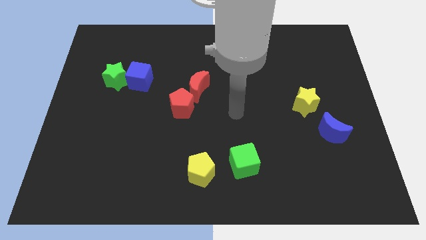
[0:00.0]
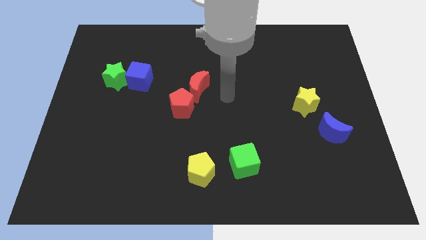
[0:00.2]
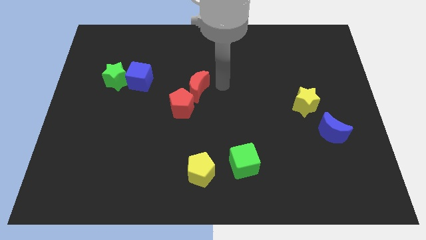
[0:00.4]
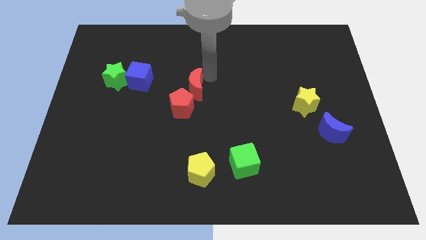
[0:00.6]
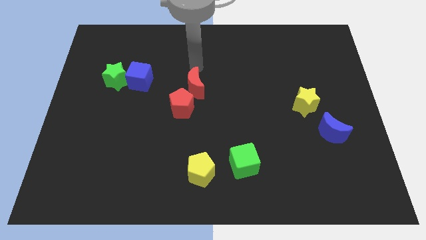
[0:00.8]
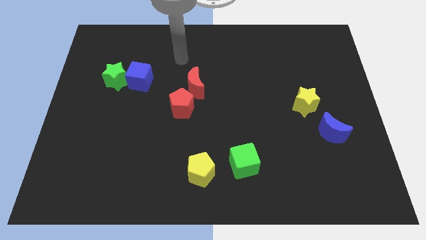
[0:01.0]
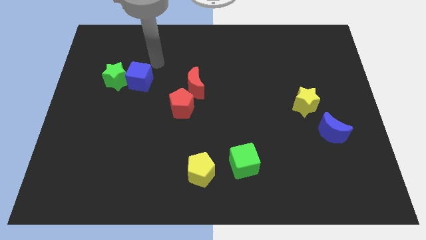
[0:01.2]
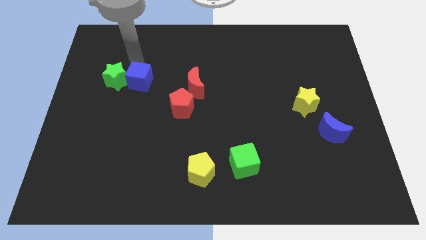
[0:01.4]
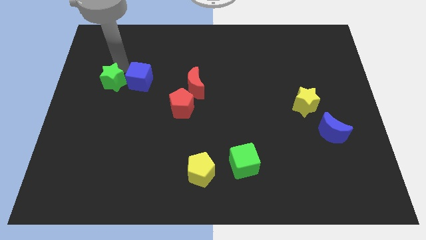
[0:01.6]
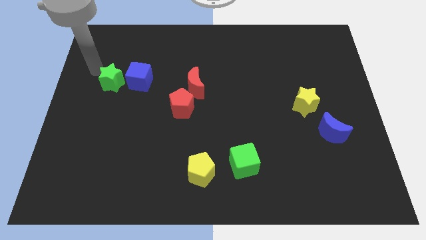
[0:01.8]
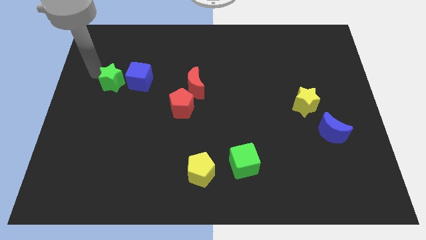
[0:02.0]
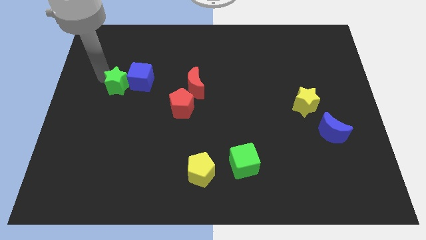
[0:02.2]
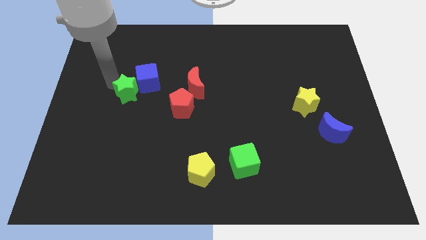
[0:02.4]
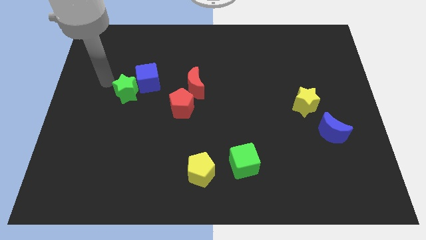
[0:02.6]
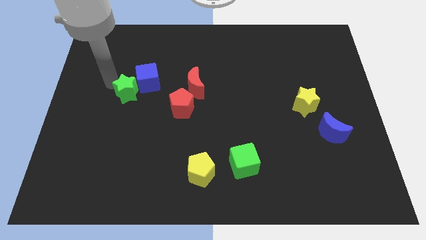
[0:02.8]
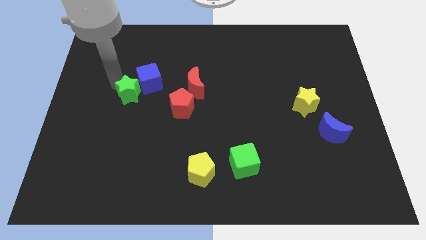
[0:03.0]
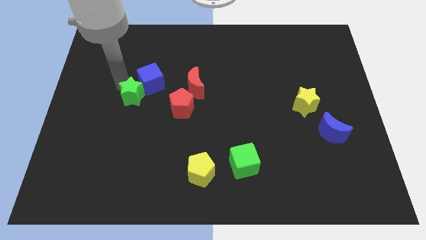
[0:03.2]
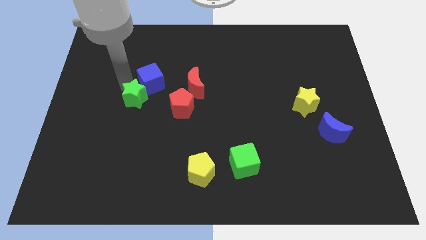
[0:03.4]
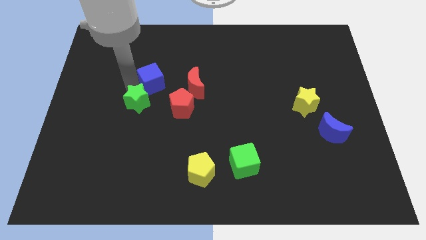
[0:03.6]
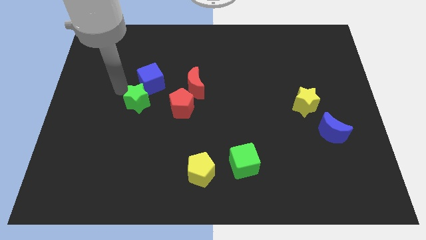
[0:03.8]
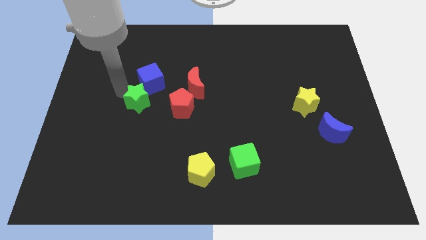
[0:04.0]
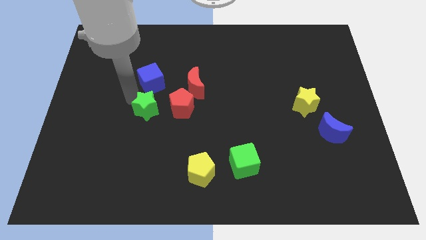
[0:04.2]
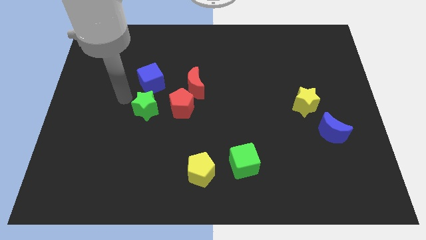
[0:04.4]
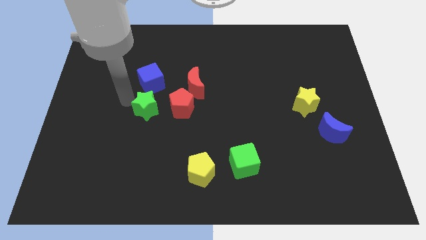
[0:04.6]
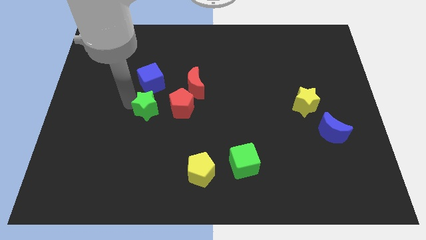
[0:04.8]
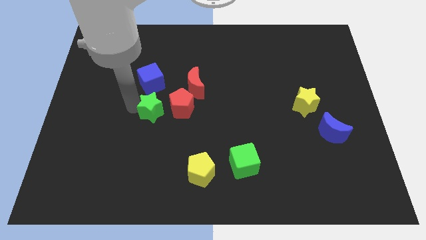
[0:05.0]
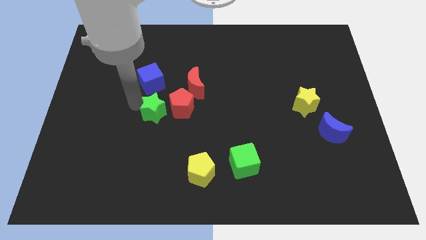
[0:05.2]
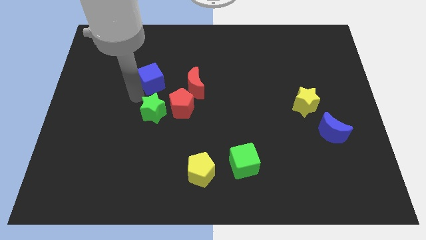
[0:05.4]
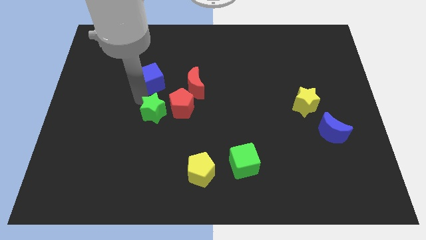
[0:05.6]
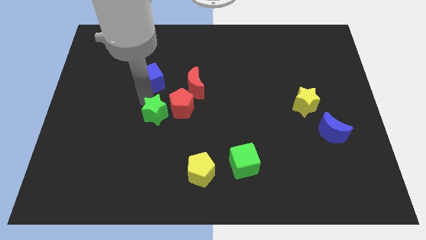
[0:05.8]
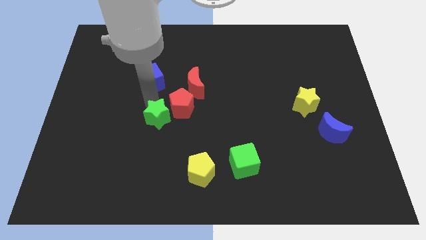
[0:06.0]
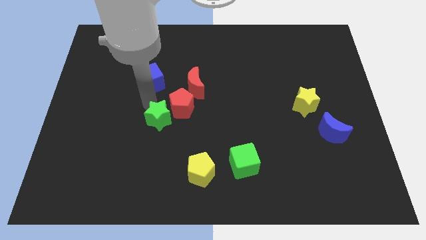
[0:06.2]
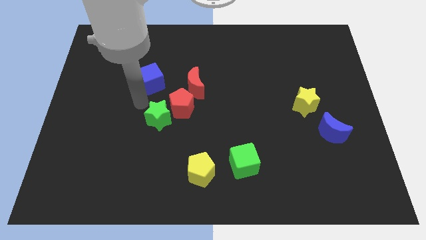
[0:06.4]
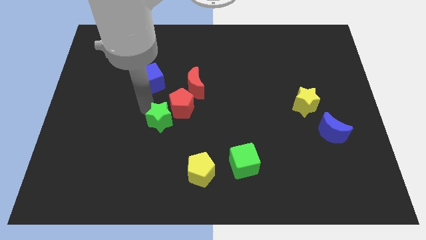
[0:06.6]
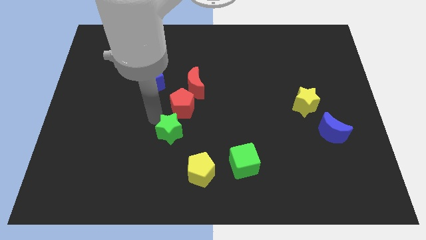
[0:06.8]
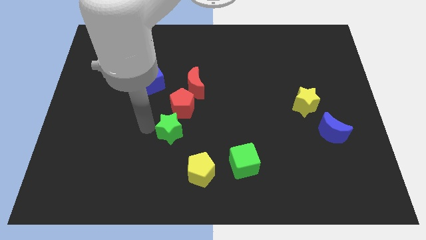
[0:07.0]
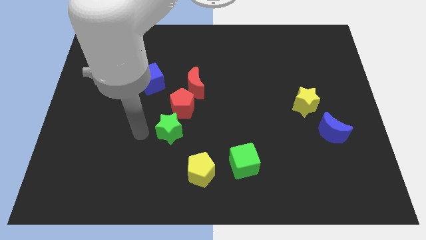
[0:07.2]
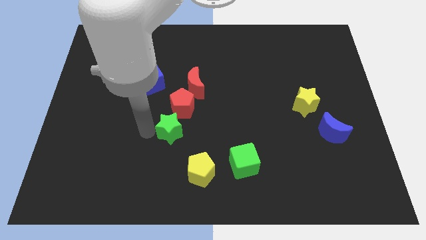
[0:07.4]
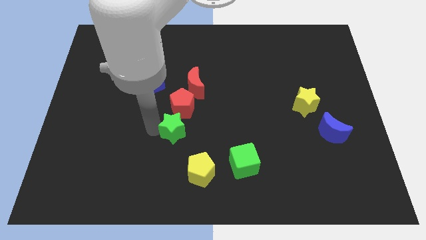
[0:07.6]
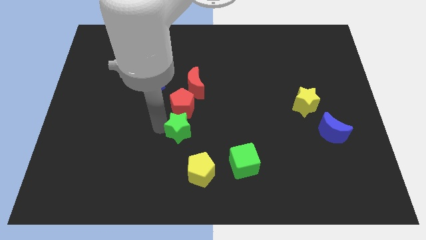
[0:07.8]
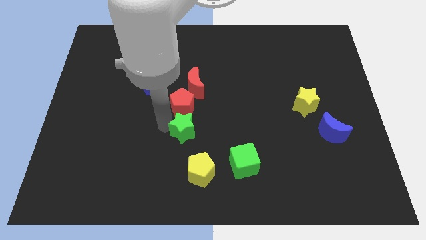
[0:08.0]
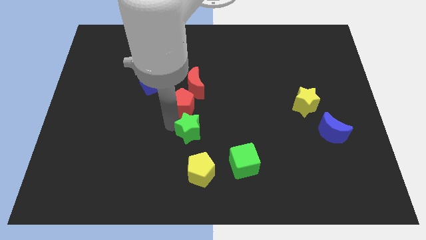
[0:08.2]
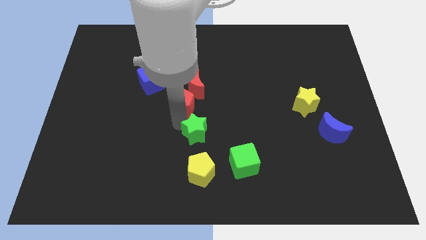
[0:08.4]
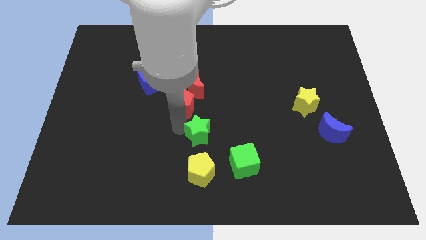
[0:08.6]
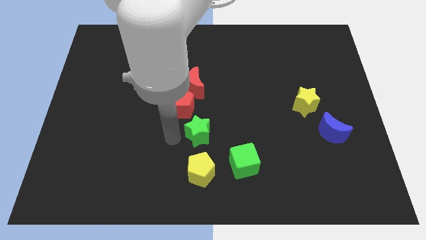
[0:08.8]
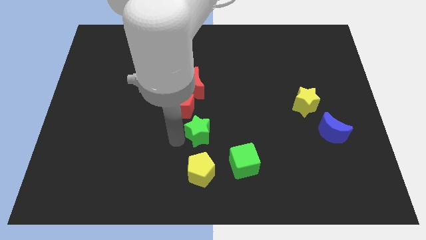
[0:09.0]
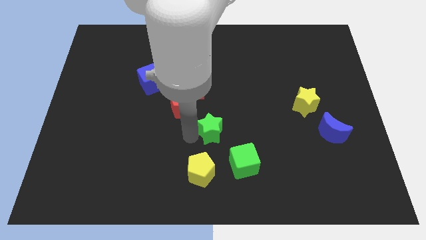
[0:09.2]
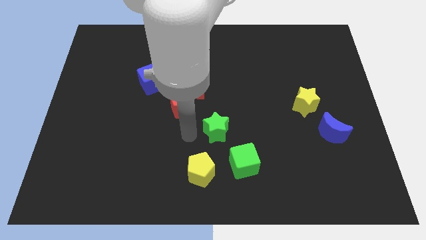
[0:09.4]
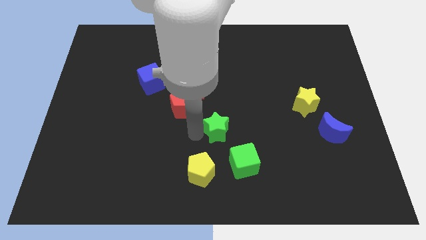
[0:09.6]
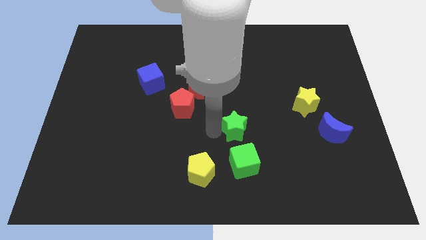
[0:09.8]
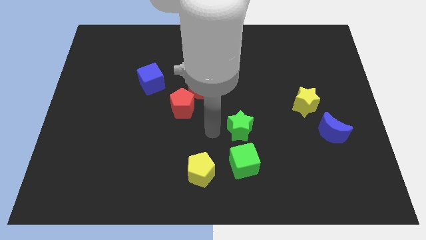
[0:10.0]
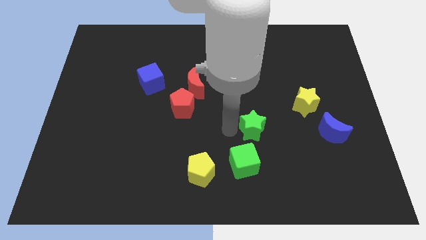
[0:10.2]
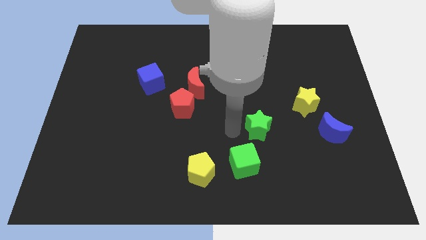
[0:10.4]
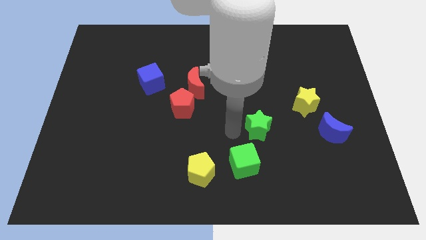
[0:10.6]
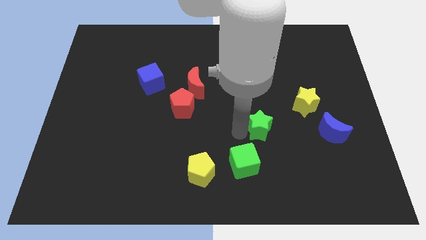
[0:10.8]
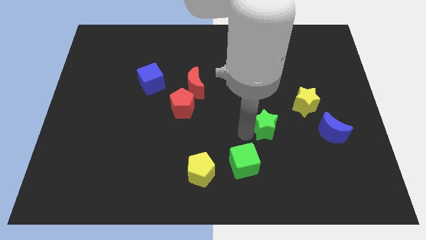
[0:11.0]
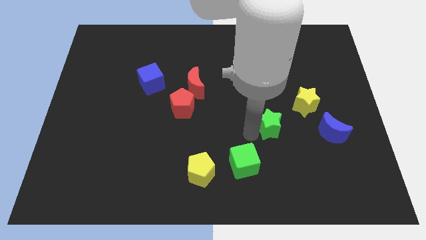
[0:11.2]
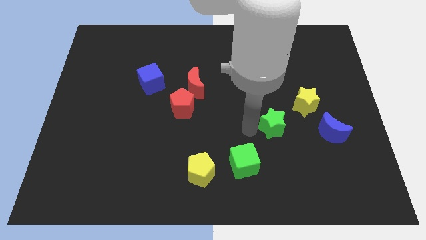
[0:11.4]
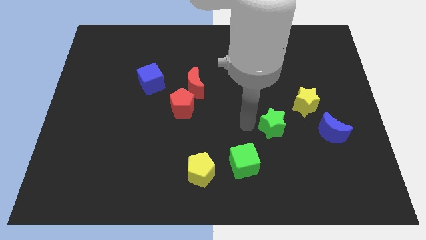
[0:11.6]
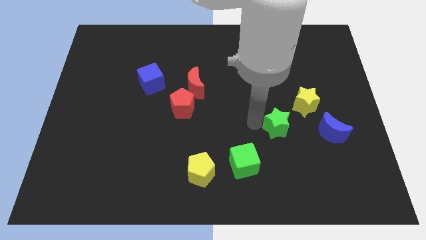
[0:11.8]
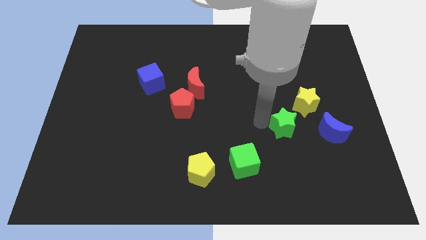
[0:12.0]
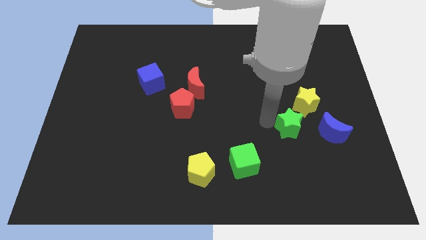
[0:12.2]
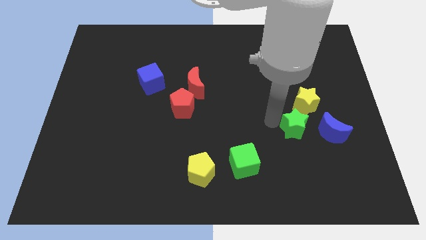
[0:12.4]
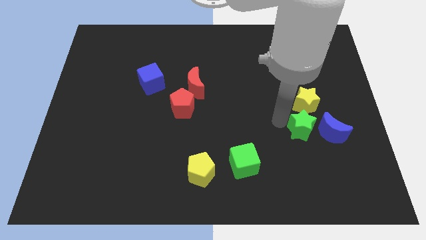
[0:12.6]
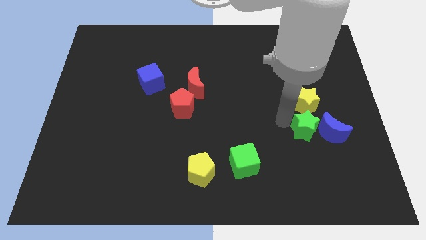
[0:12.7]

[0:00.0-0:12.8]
push the green star next to the blue moon

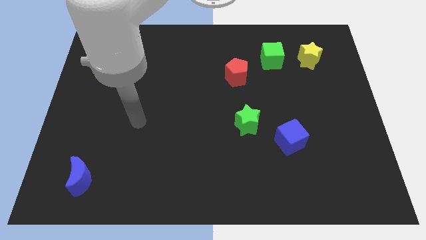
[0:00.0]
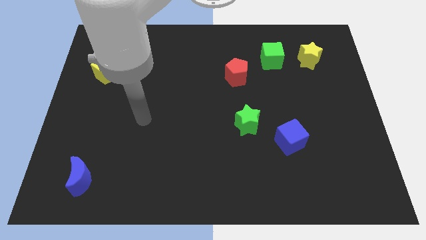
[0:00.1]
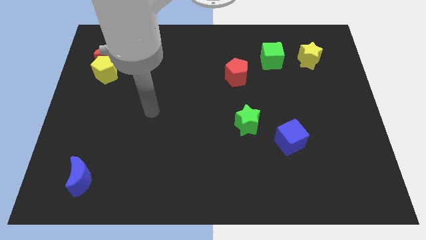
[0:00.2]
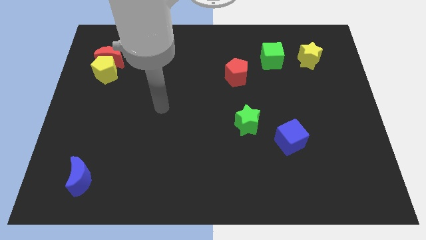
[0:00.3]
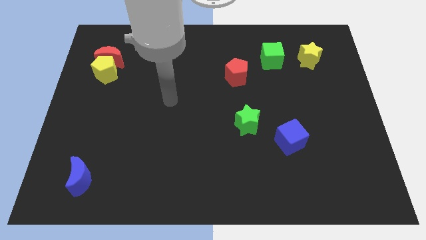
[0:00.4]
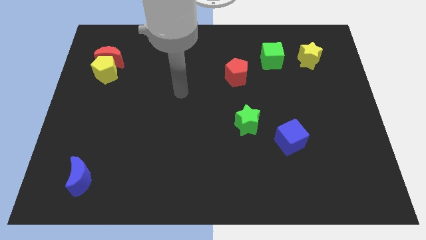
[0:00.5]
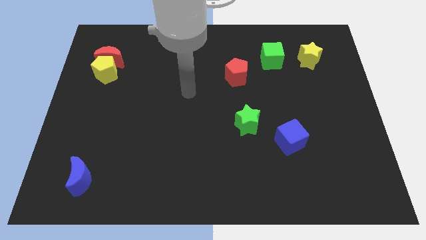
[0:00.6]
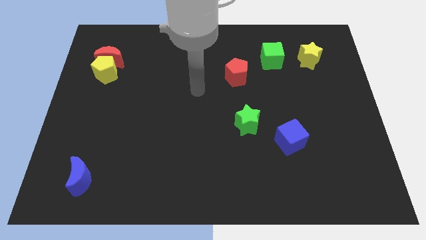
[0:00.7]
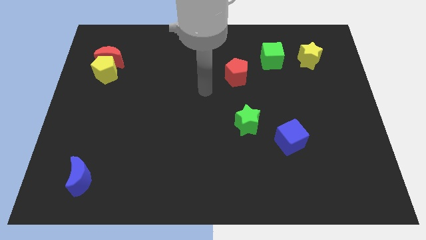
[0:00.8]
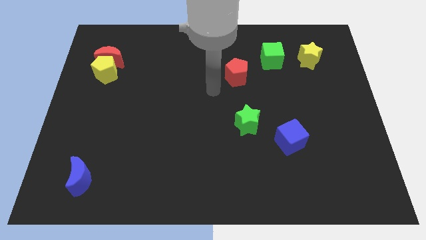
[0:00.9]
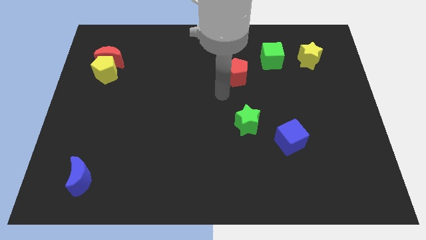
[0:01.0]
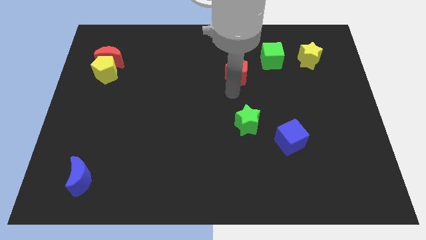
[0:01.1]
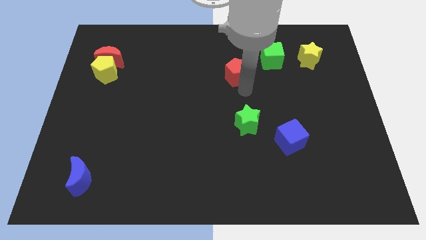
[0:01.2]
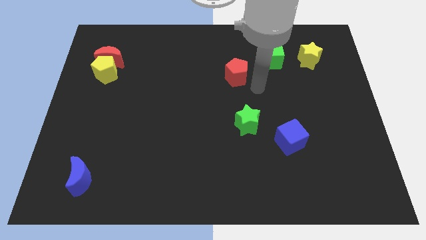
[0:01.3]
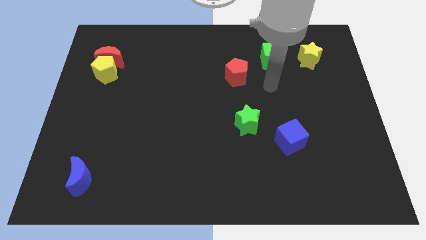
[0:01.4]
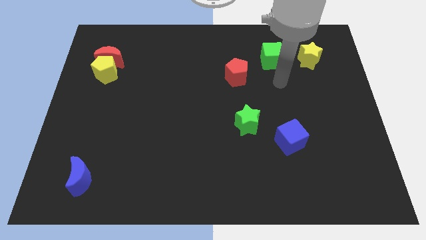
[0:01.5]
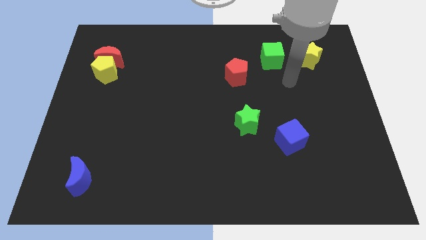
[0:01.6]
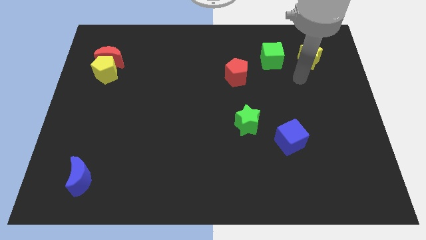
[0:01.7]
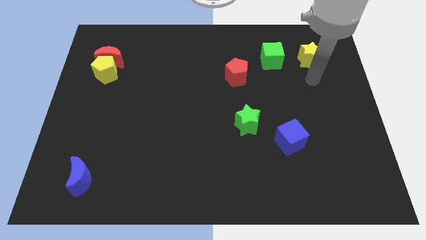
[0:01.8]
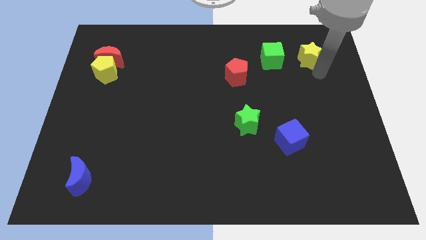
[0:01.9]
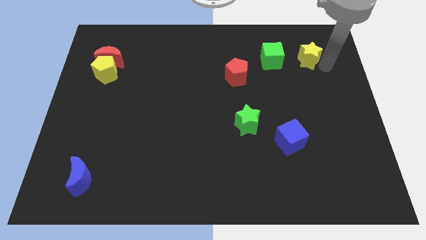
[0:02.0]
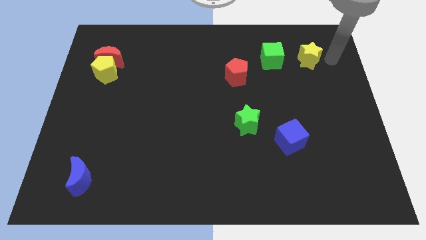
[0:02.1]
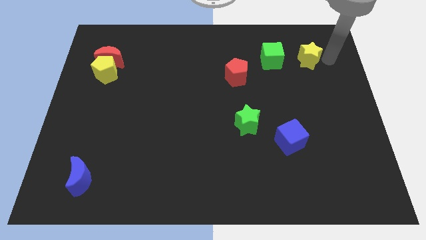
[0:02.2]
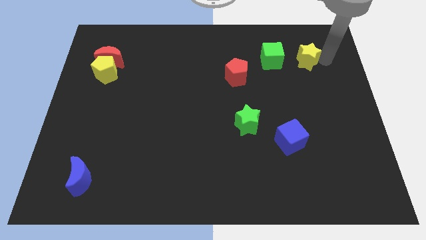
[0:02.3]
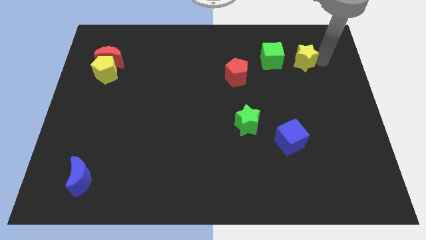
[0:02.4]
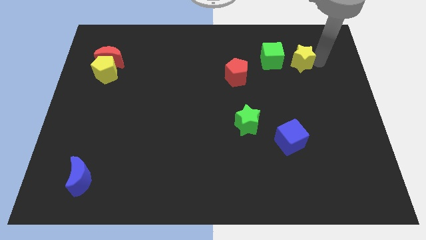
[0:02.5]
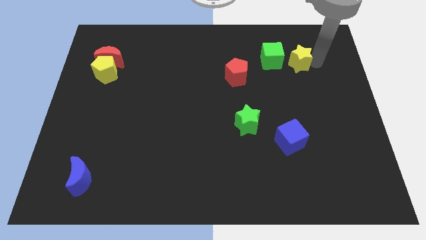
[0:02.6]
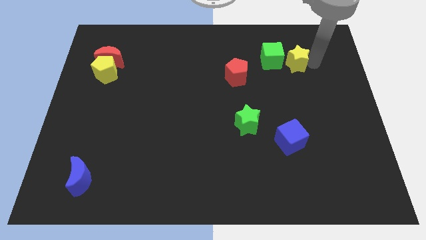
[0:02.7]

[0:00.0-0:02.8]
move the yellow star close to the green cube
